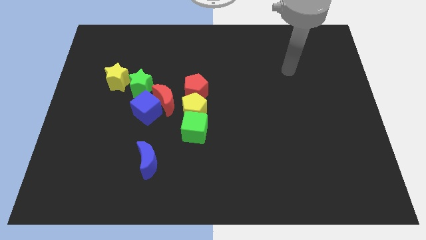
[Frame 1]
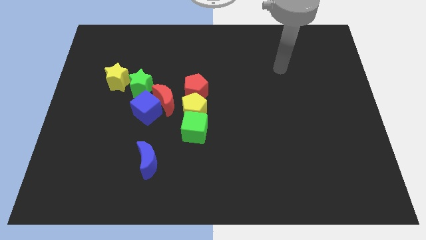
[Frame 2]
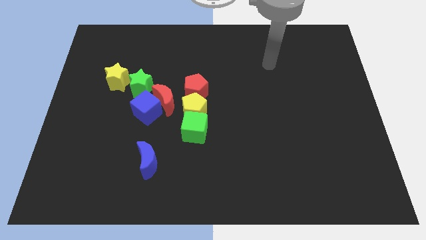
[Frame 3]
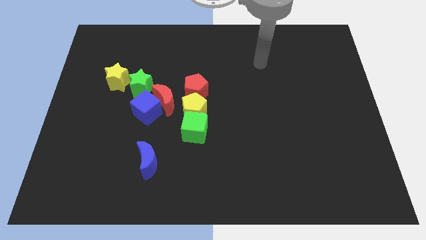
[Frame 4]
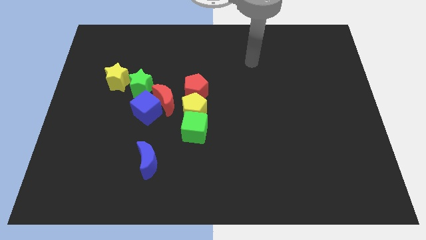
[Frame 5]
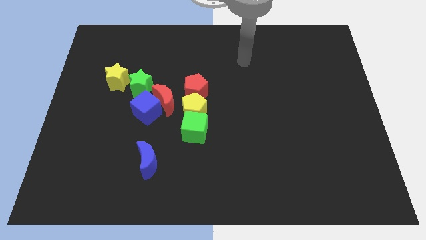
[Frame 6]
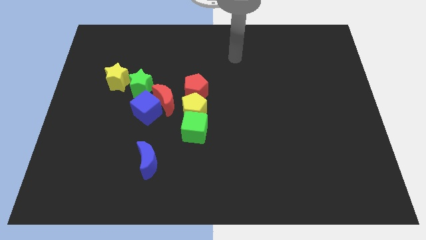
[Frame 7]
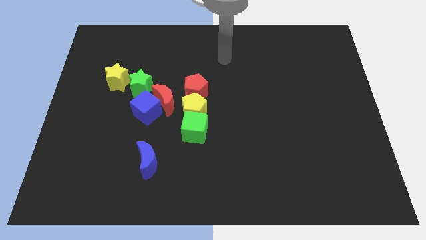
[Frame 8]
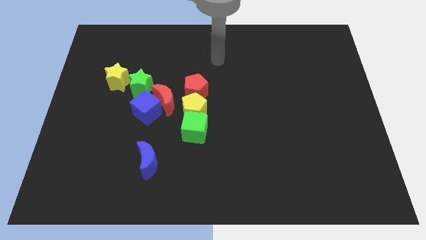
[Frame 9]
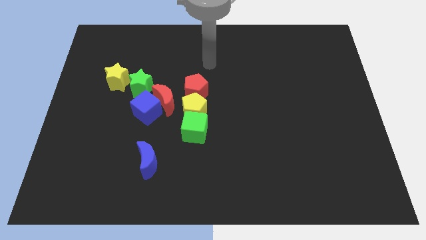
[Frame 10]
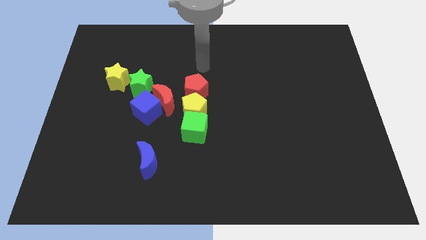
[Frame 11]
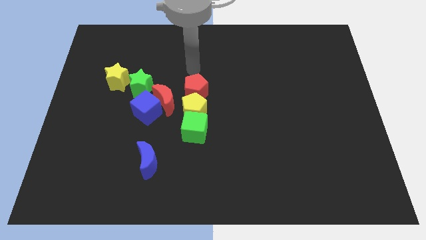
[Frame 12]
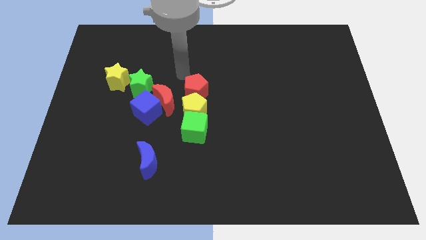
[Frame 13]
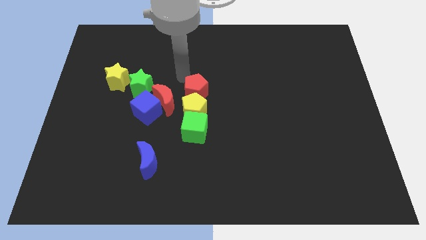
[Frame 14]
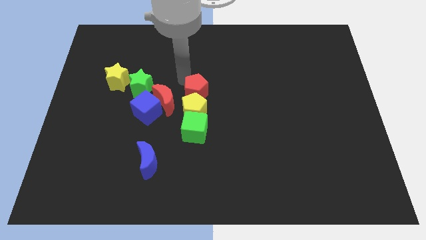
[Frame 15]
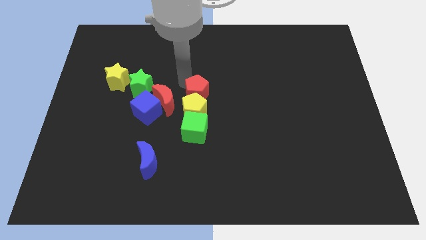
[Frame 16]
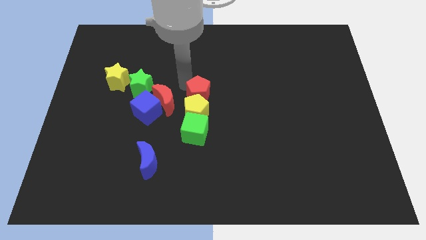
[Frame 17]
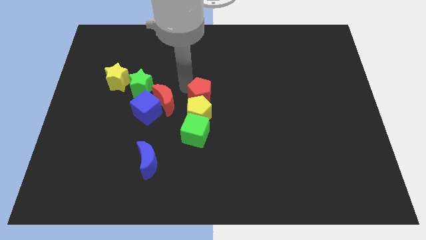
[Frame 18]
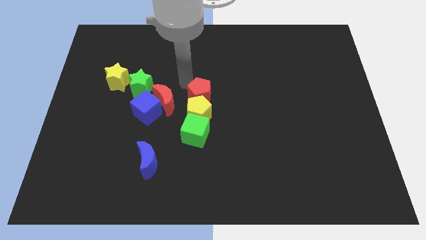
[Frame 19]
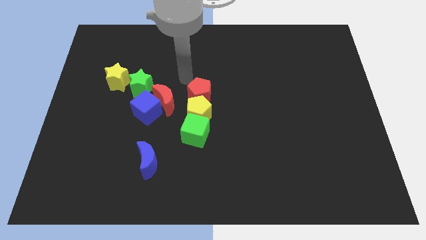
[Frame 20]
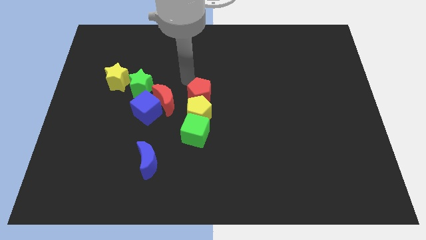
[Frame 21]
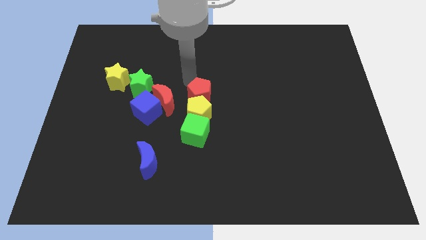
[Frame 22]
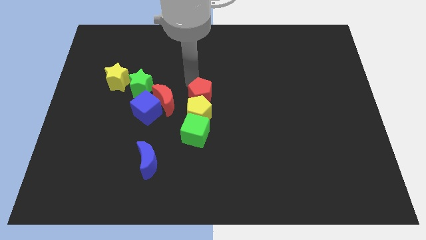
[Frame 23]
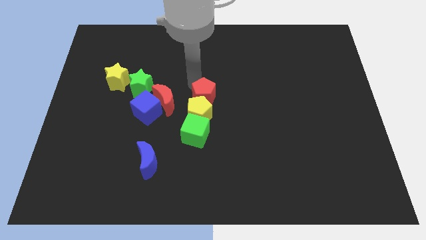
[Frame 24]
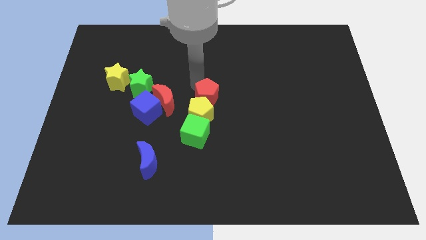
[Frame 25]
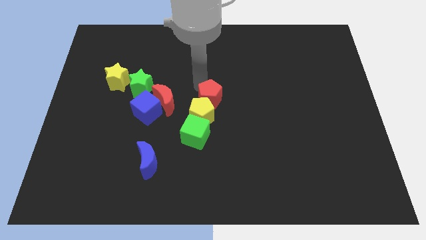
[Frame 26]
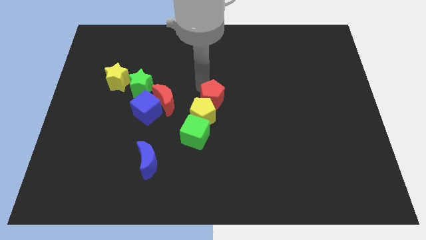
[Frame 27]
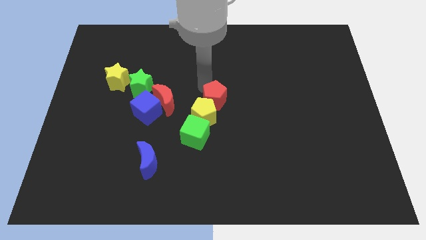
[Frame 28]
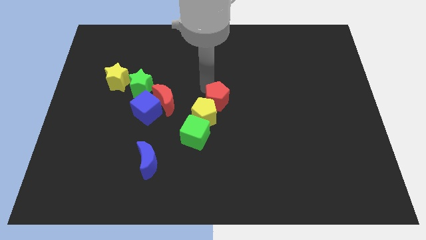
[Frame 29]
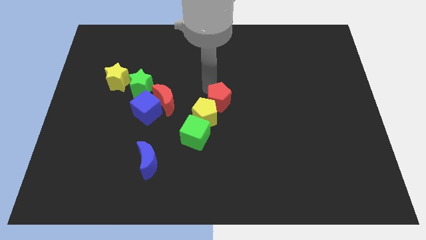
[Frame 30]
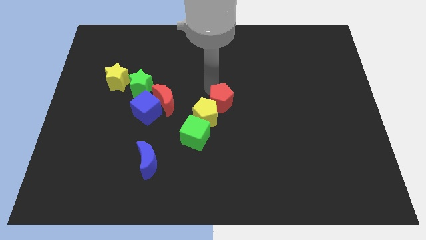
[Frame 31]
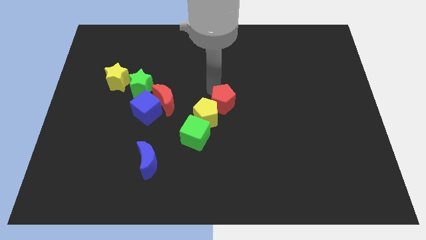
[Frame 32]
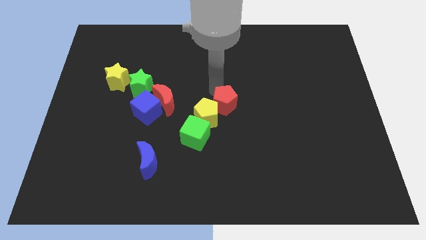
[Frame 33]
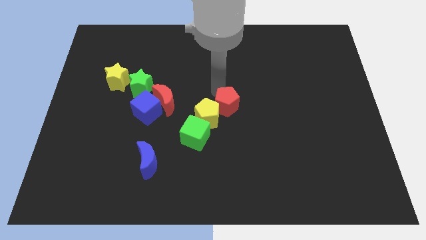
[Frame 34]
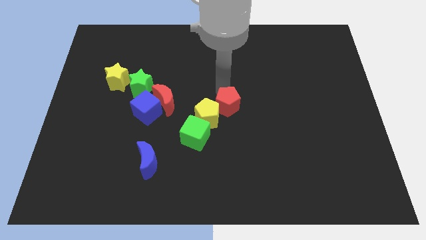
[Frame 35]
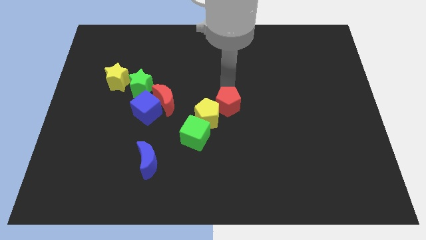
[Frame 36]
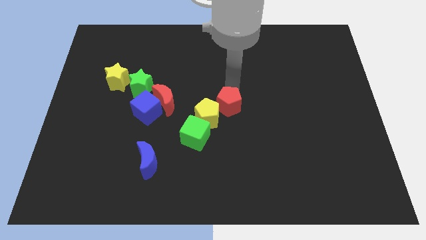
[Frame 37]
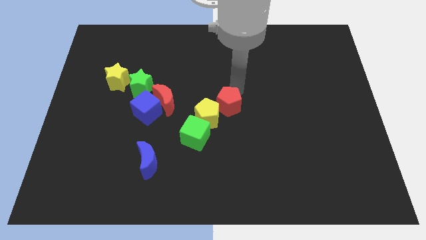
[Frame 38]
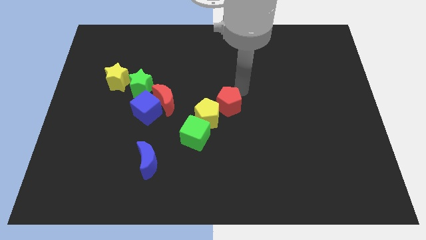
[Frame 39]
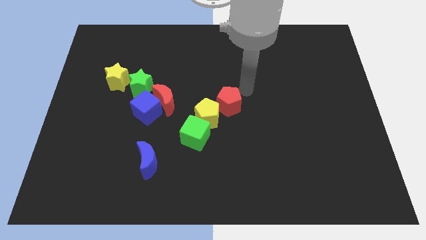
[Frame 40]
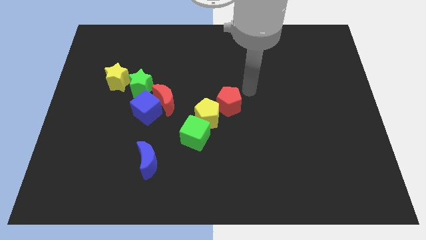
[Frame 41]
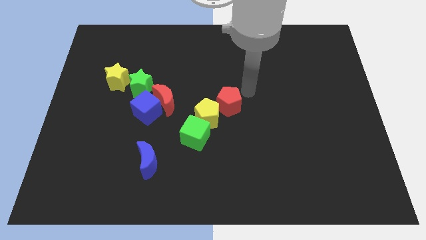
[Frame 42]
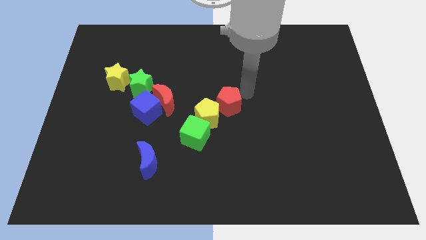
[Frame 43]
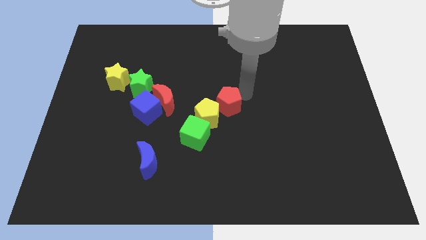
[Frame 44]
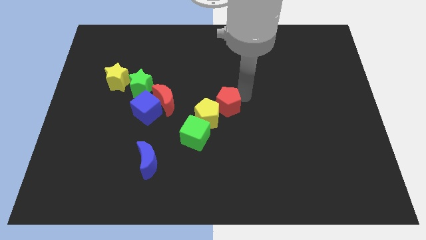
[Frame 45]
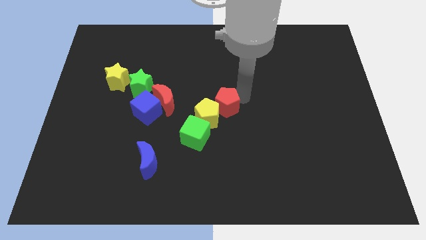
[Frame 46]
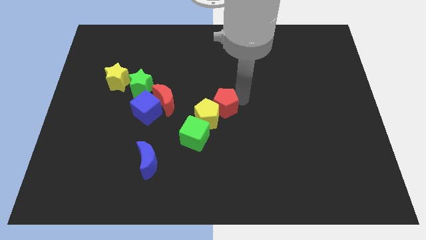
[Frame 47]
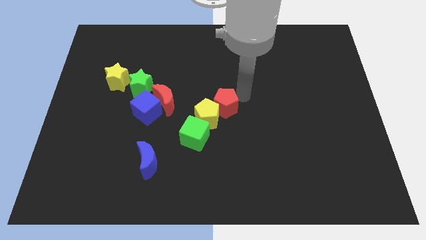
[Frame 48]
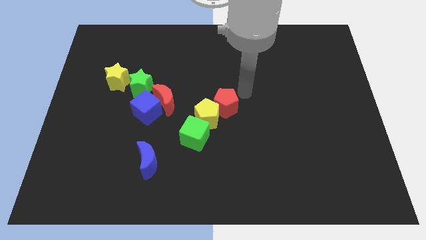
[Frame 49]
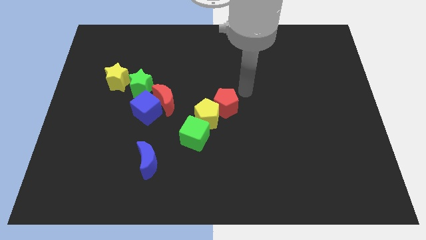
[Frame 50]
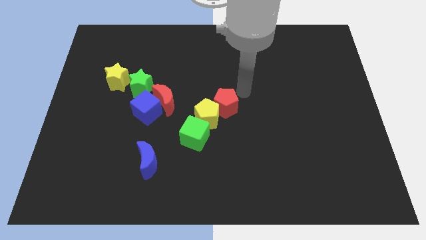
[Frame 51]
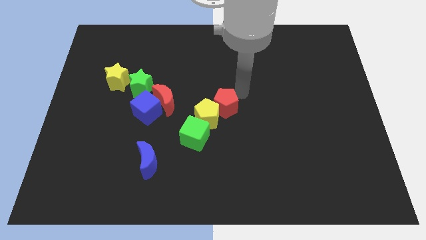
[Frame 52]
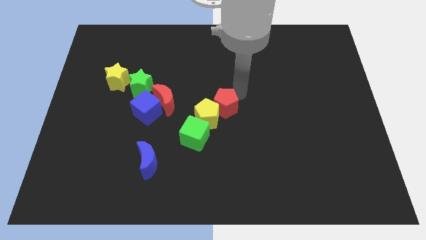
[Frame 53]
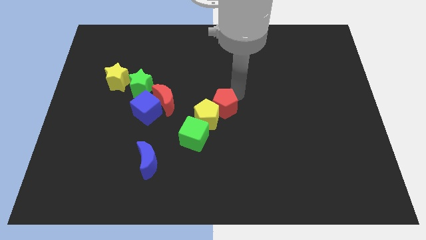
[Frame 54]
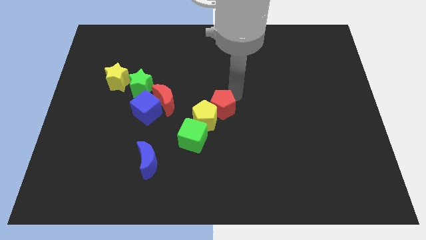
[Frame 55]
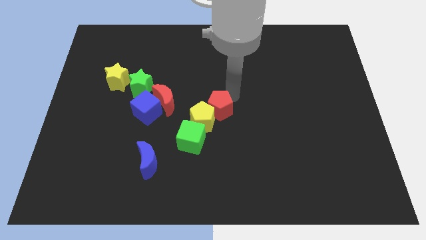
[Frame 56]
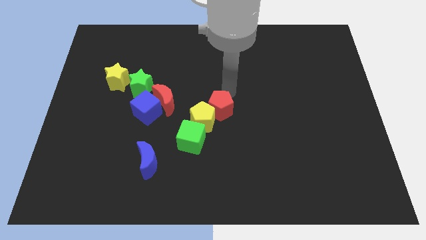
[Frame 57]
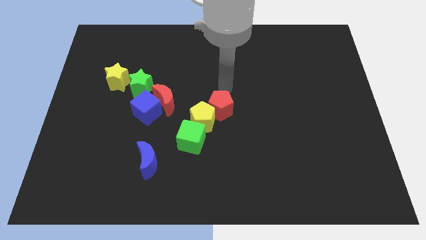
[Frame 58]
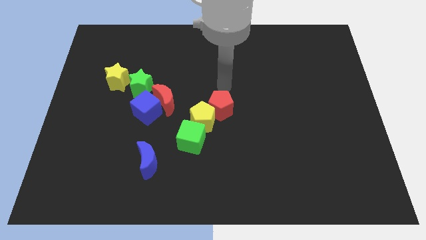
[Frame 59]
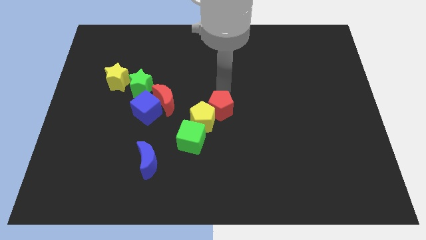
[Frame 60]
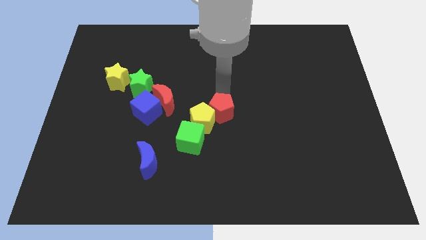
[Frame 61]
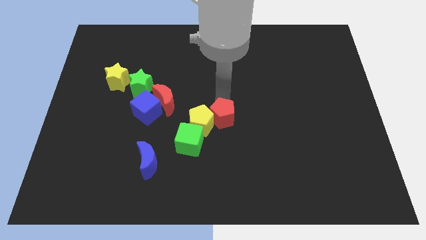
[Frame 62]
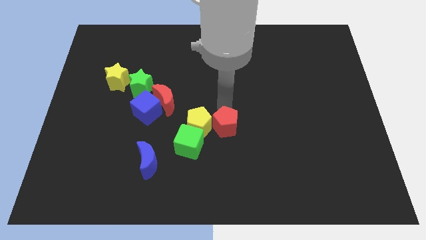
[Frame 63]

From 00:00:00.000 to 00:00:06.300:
slightly push the red pentagon downwards

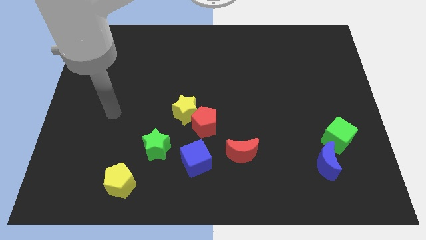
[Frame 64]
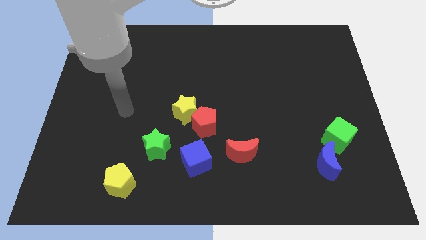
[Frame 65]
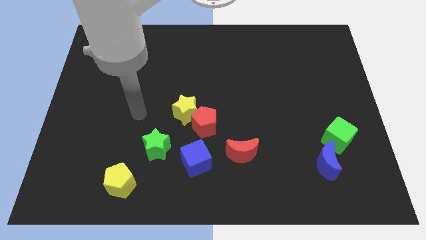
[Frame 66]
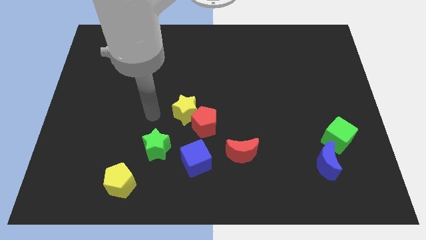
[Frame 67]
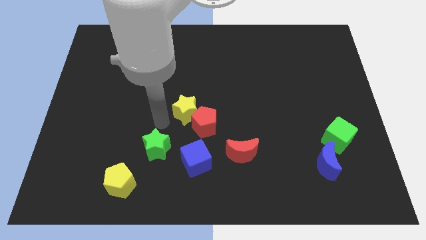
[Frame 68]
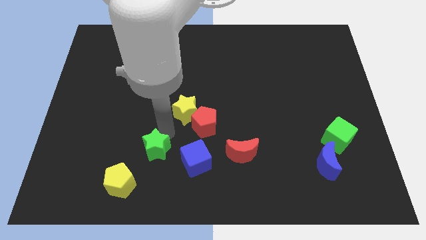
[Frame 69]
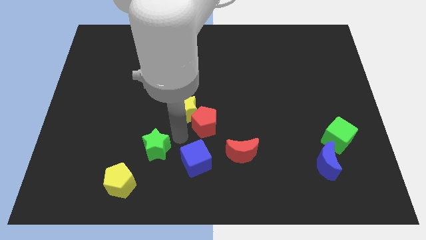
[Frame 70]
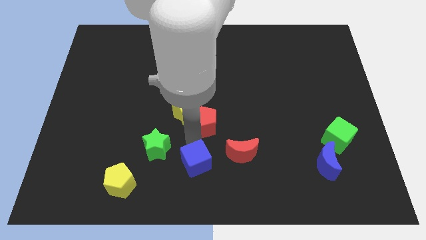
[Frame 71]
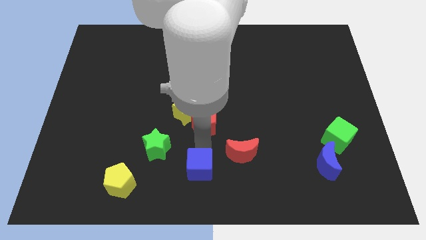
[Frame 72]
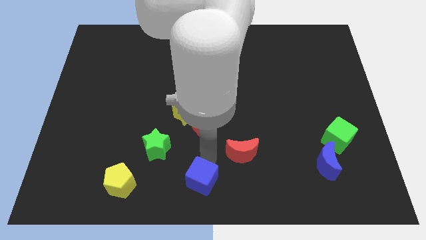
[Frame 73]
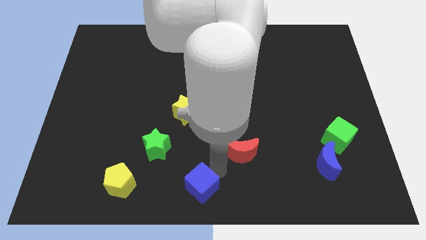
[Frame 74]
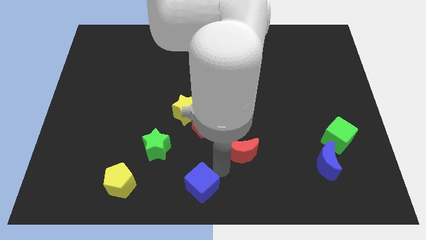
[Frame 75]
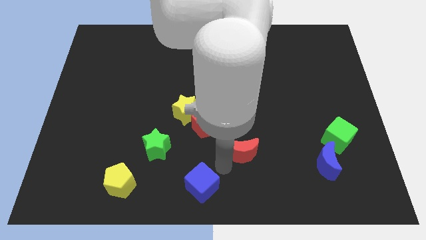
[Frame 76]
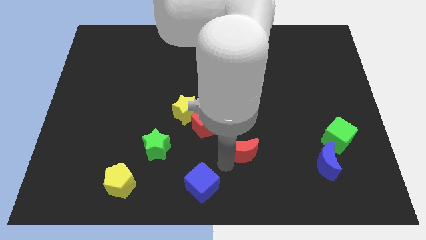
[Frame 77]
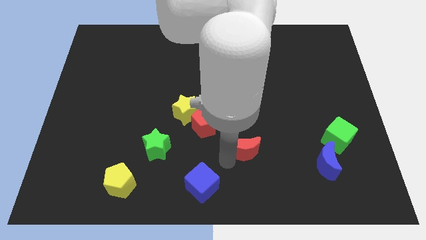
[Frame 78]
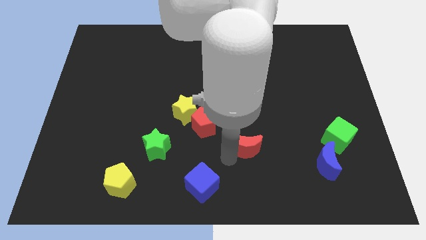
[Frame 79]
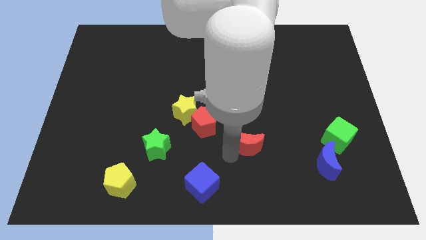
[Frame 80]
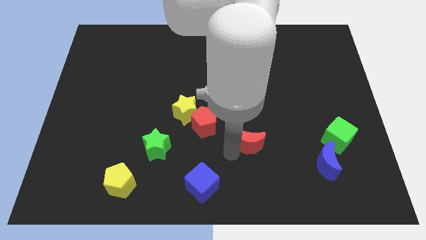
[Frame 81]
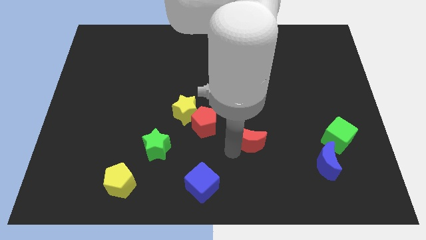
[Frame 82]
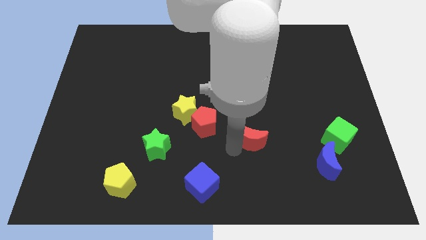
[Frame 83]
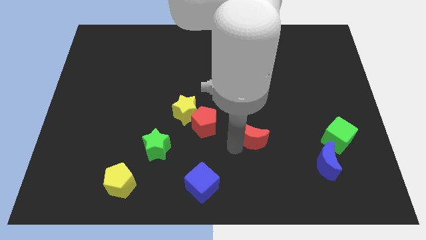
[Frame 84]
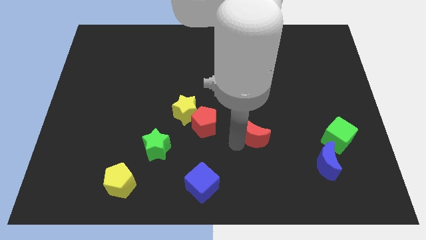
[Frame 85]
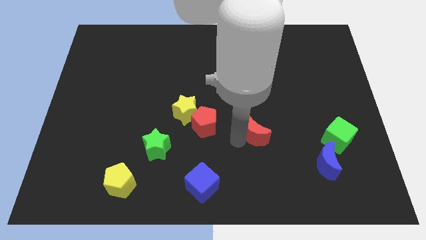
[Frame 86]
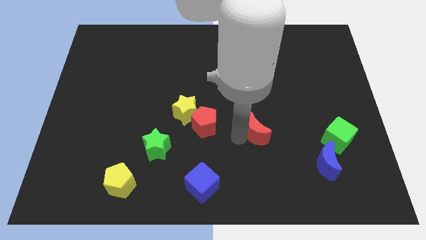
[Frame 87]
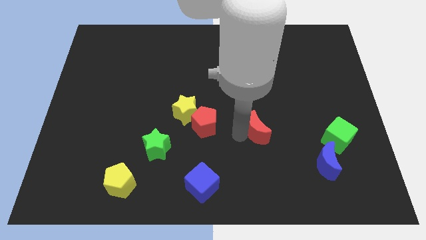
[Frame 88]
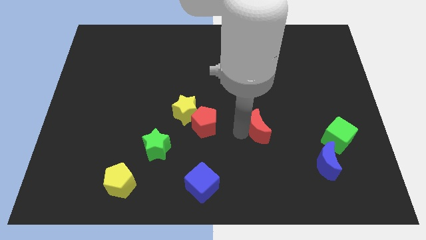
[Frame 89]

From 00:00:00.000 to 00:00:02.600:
slightly push the red moon upwards and then to the right
